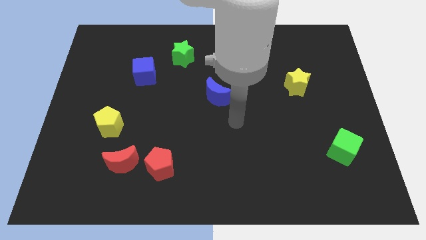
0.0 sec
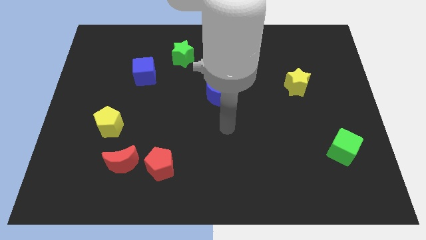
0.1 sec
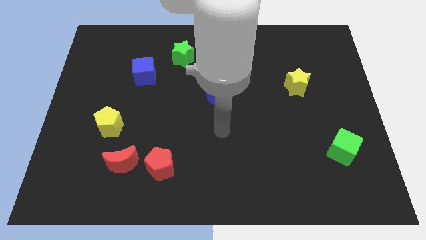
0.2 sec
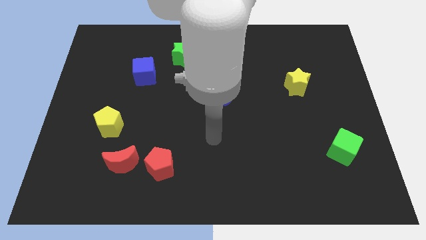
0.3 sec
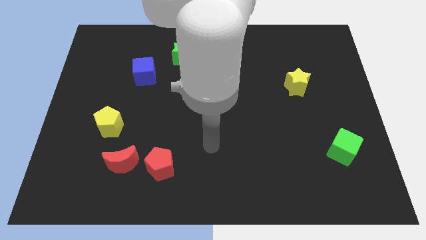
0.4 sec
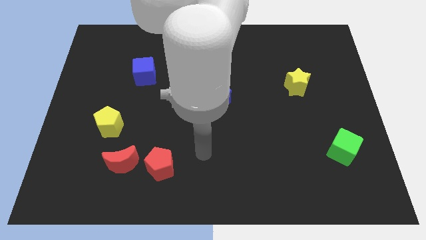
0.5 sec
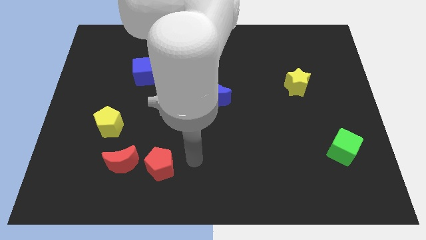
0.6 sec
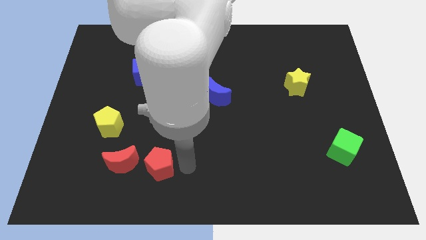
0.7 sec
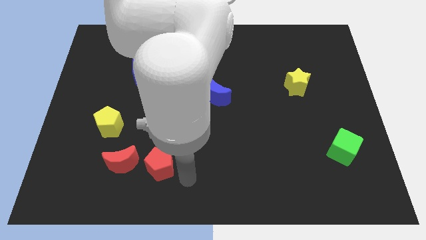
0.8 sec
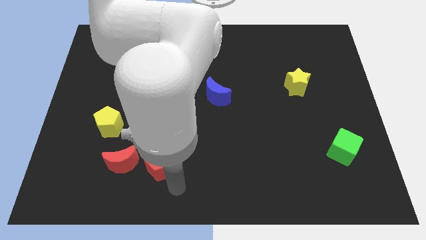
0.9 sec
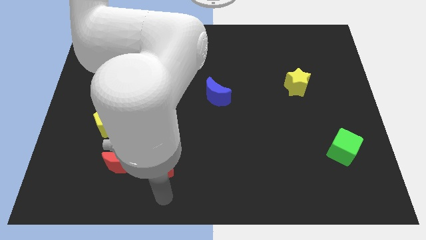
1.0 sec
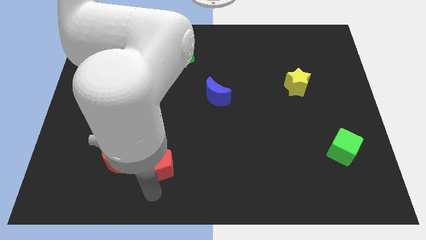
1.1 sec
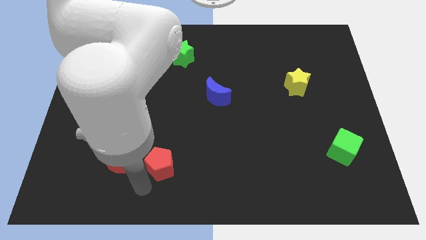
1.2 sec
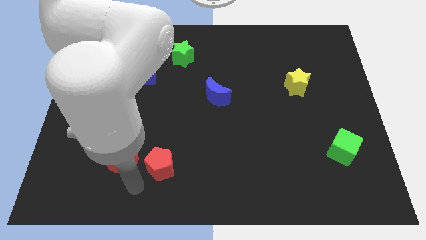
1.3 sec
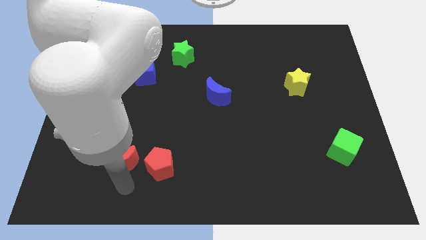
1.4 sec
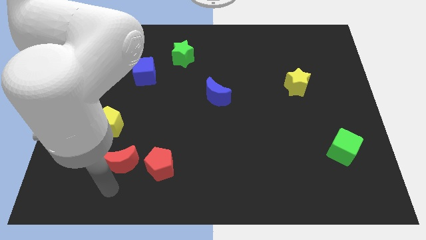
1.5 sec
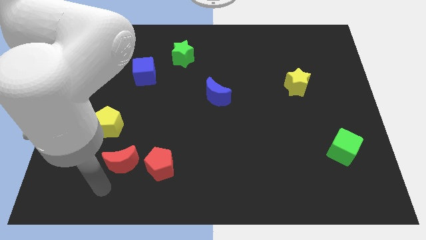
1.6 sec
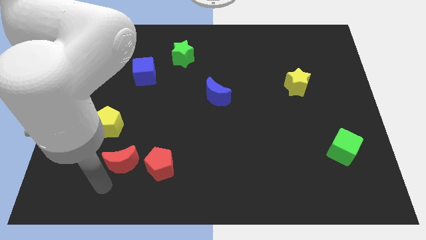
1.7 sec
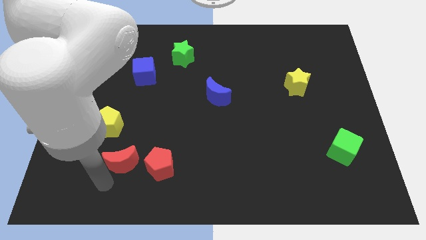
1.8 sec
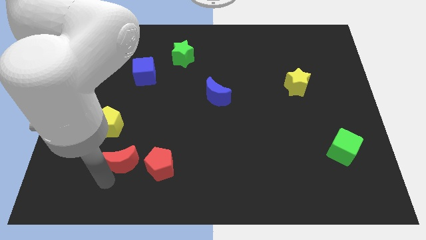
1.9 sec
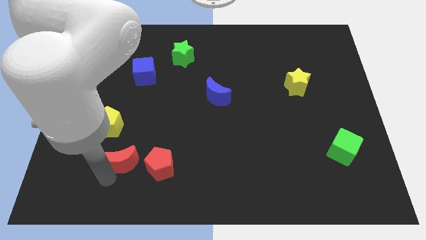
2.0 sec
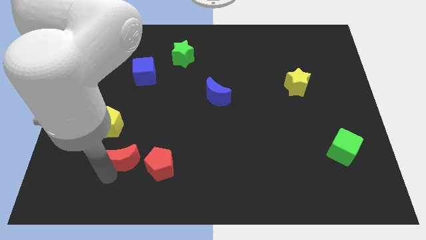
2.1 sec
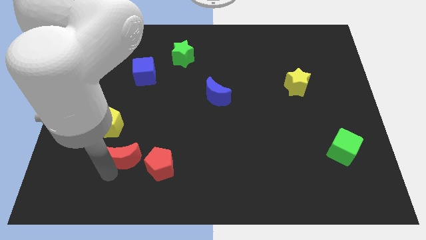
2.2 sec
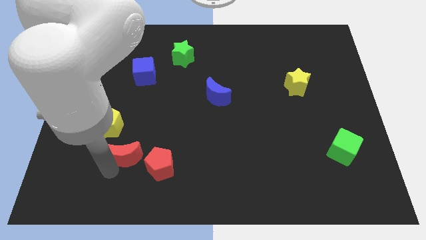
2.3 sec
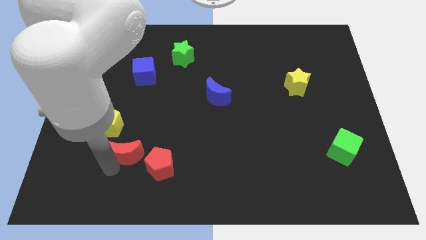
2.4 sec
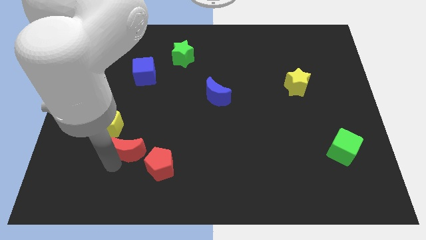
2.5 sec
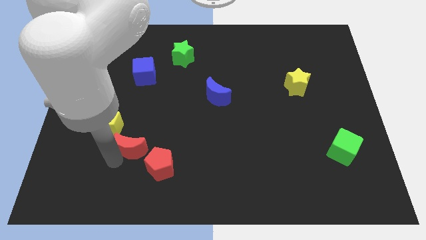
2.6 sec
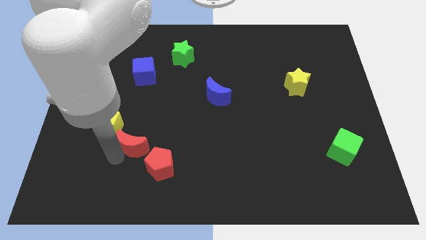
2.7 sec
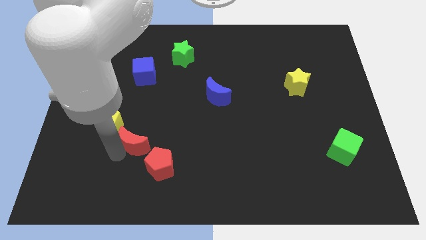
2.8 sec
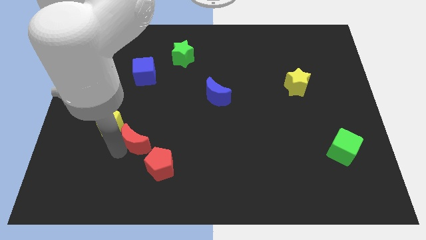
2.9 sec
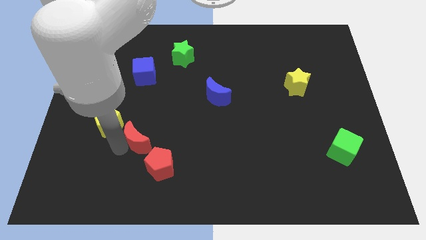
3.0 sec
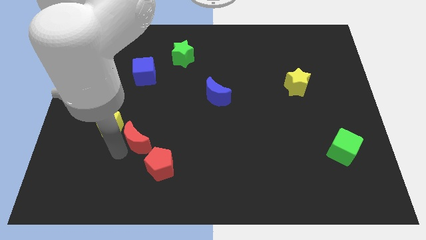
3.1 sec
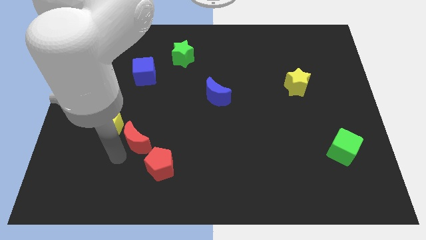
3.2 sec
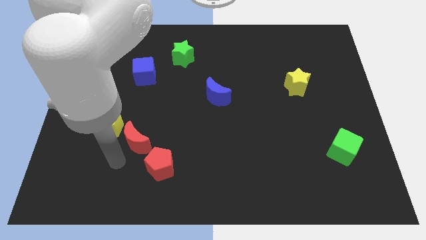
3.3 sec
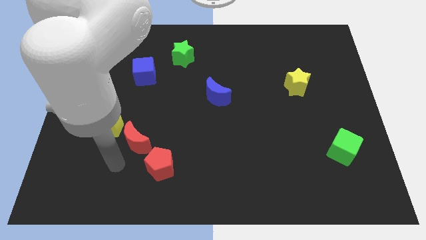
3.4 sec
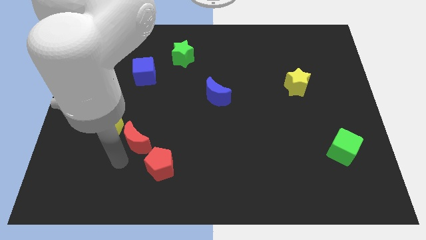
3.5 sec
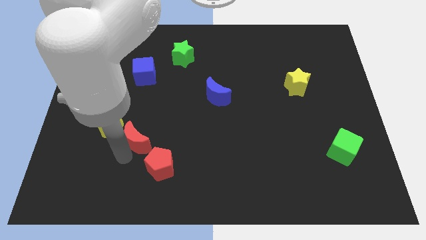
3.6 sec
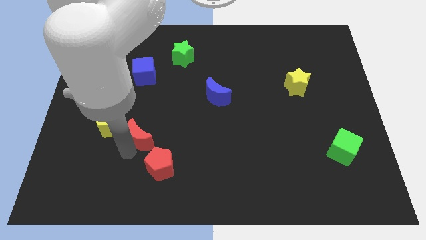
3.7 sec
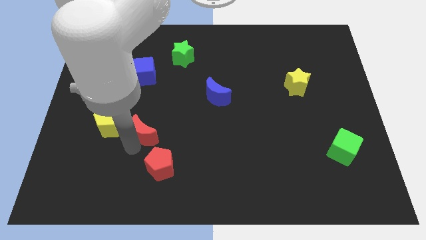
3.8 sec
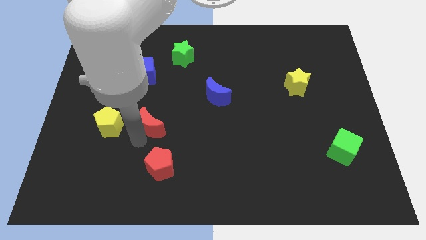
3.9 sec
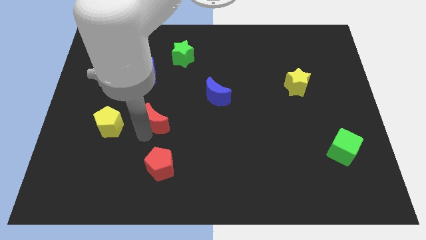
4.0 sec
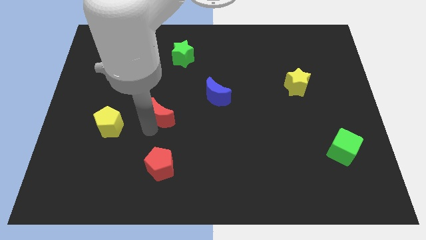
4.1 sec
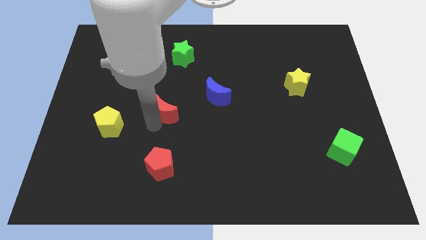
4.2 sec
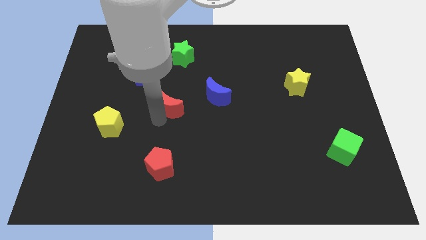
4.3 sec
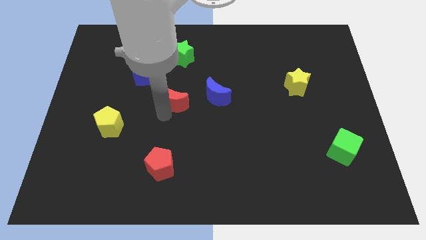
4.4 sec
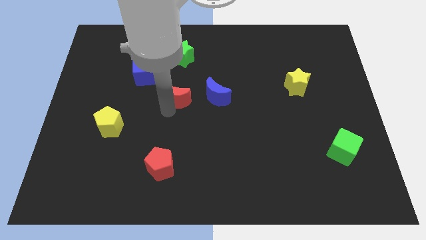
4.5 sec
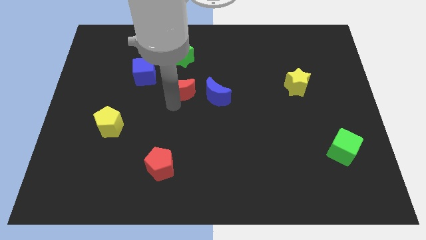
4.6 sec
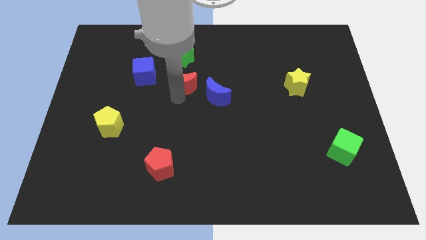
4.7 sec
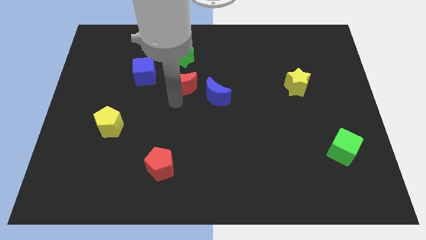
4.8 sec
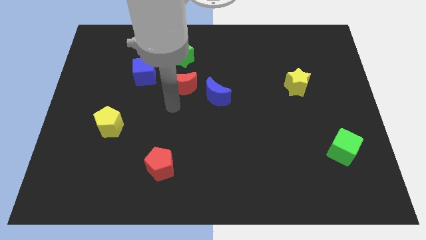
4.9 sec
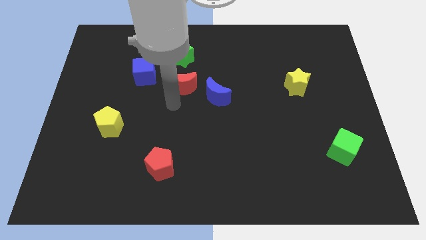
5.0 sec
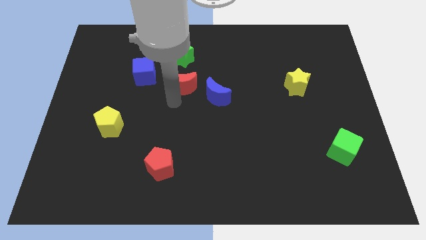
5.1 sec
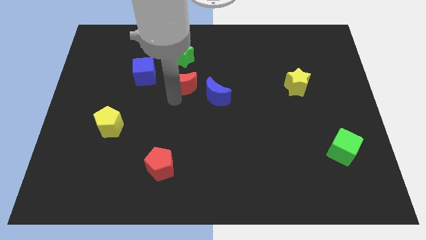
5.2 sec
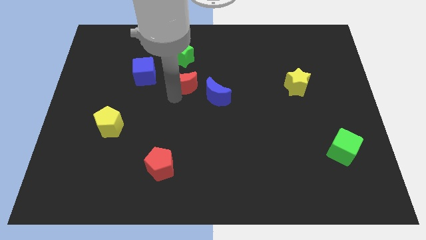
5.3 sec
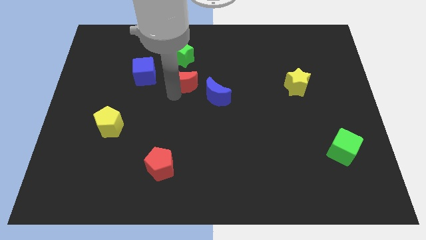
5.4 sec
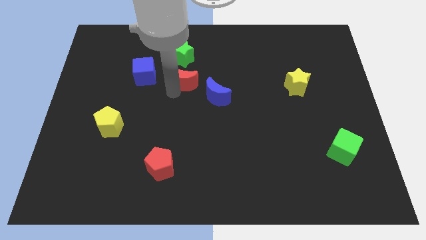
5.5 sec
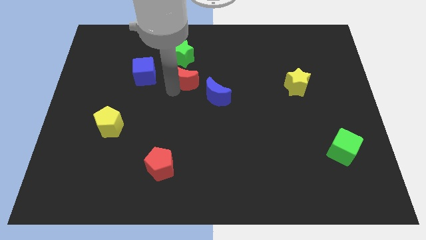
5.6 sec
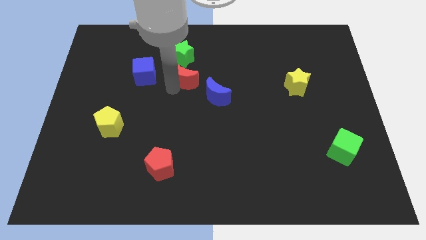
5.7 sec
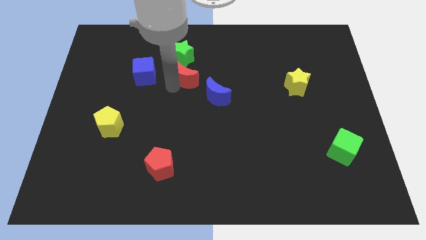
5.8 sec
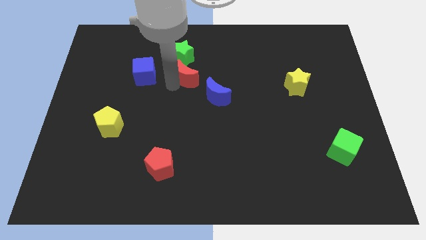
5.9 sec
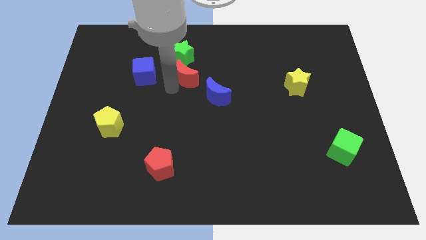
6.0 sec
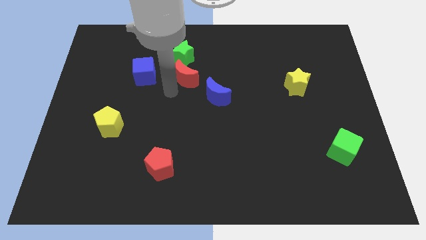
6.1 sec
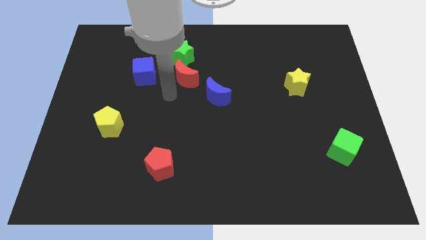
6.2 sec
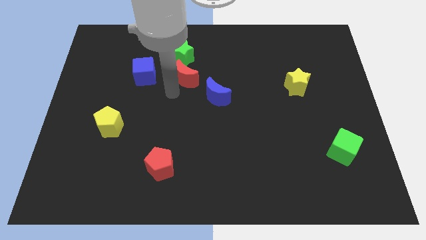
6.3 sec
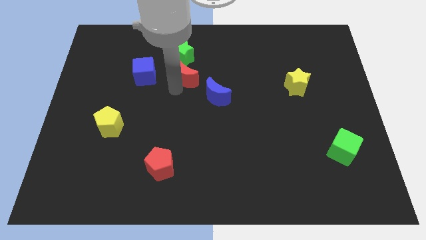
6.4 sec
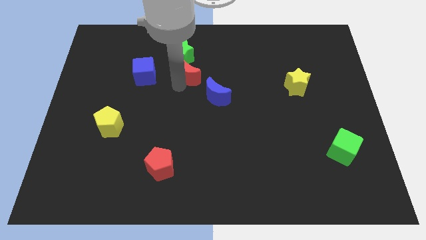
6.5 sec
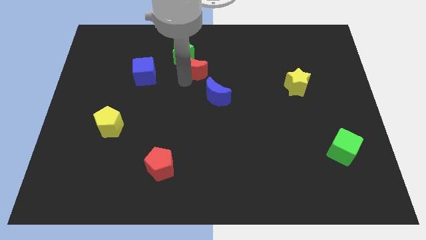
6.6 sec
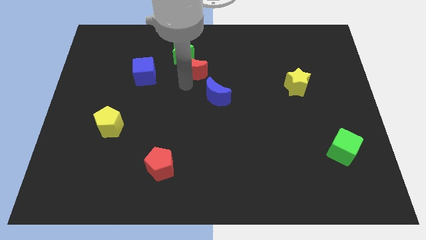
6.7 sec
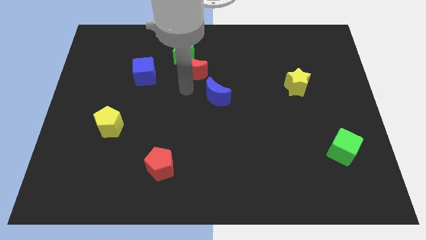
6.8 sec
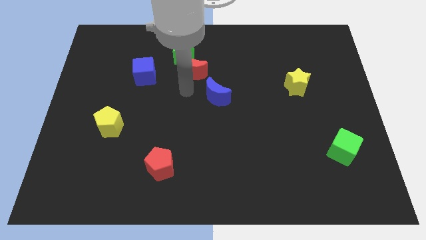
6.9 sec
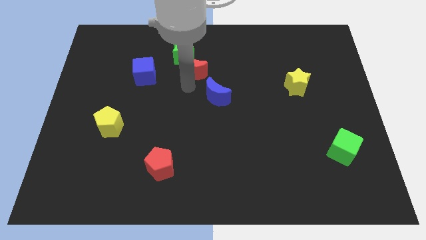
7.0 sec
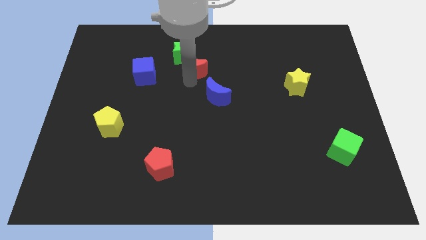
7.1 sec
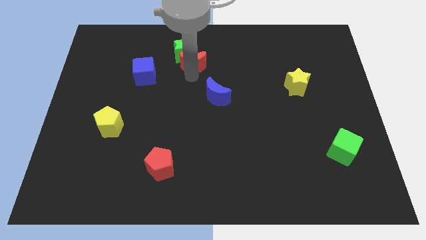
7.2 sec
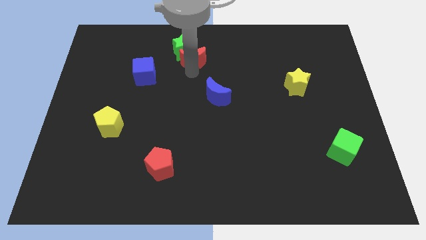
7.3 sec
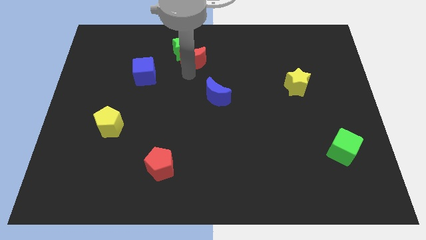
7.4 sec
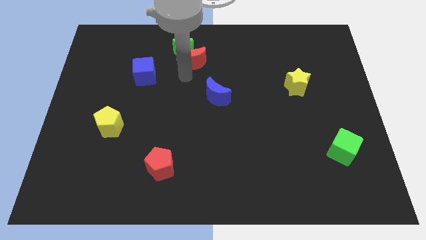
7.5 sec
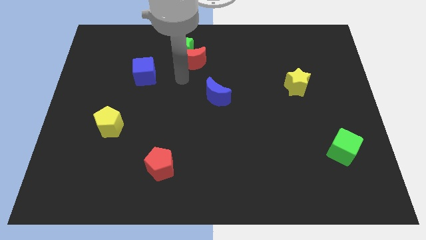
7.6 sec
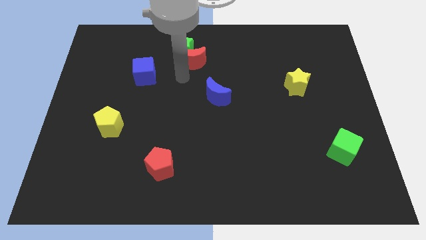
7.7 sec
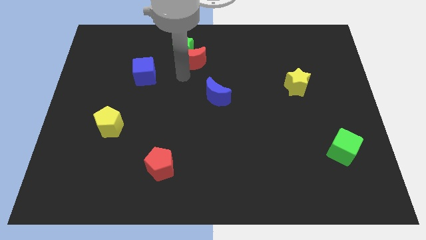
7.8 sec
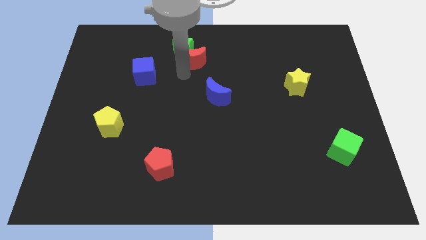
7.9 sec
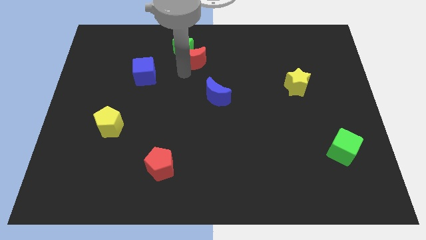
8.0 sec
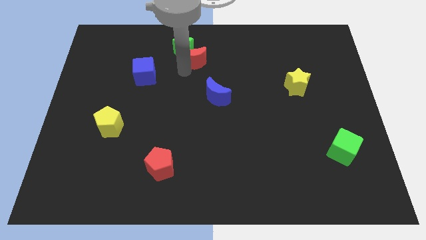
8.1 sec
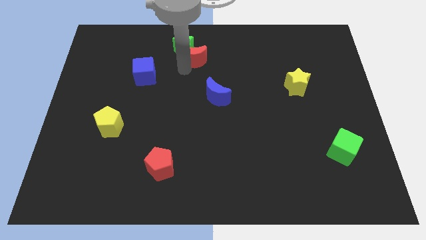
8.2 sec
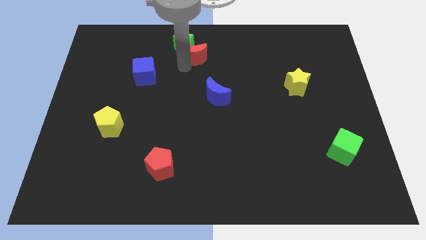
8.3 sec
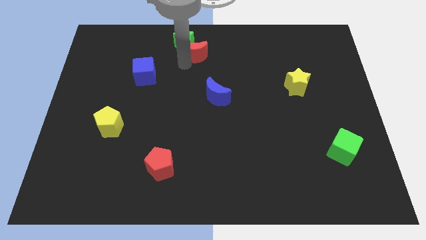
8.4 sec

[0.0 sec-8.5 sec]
put the red moon to the top
